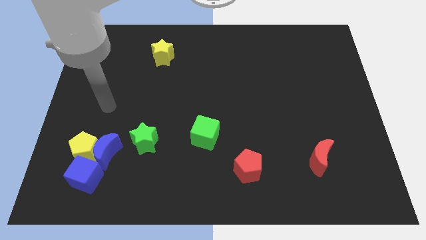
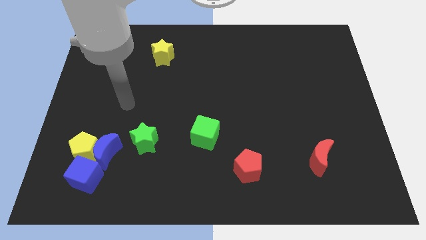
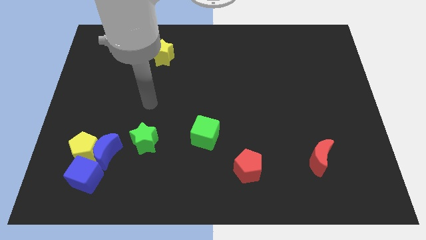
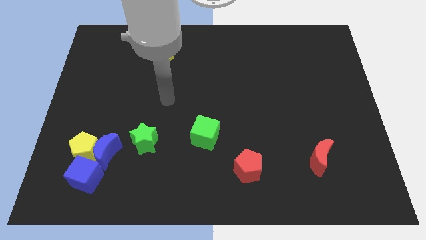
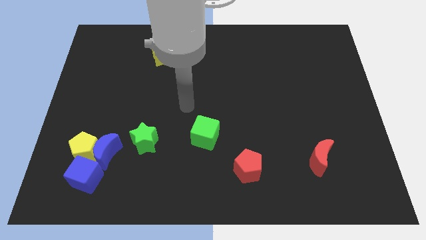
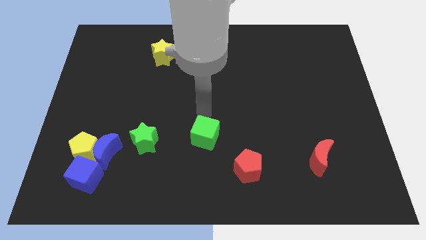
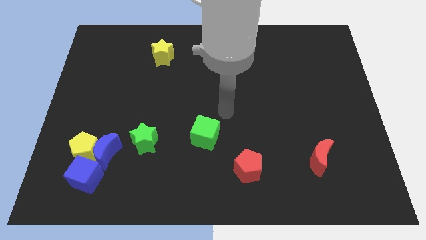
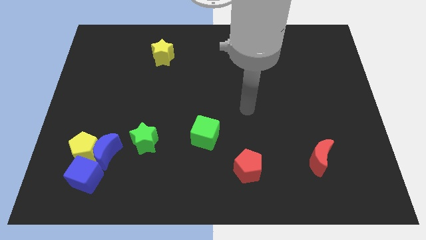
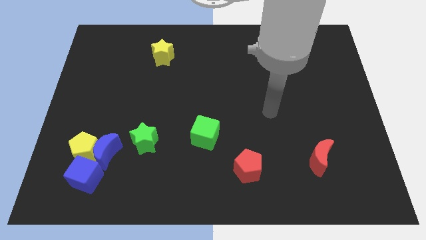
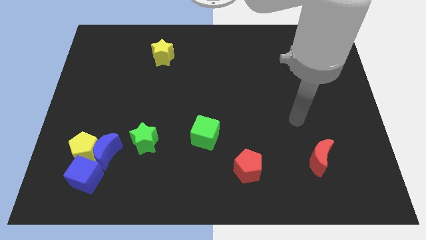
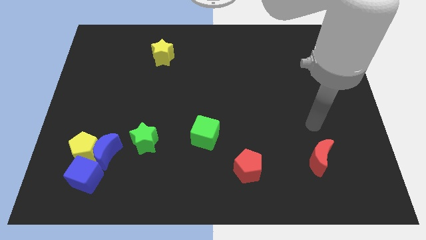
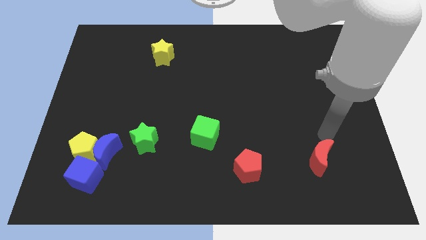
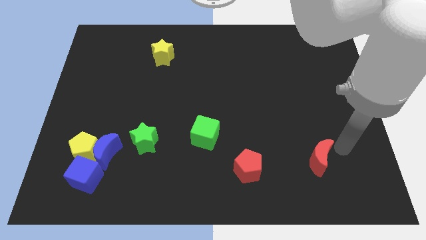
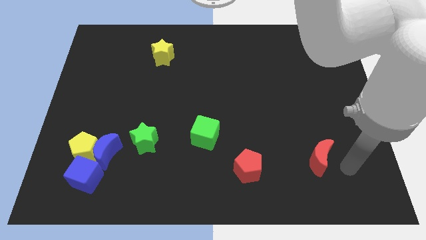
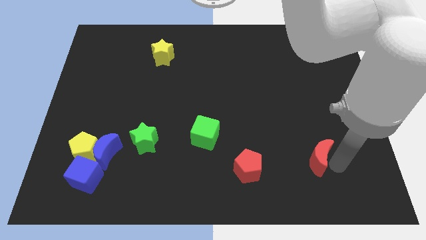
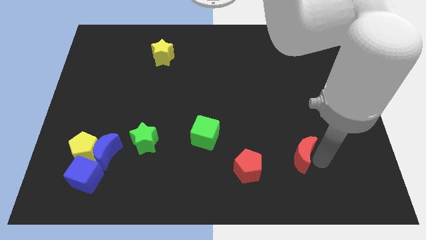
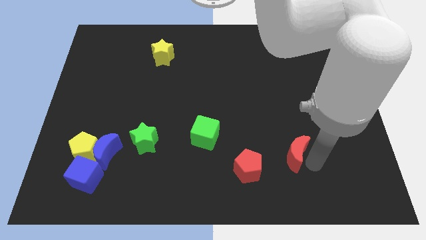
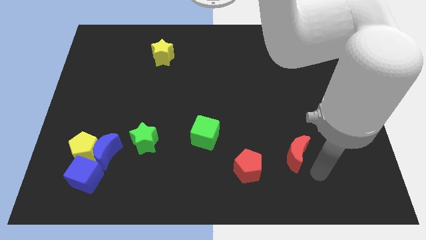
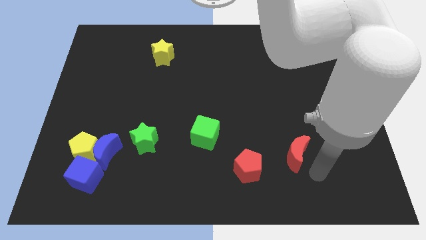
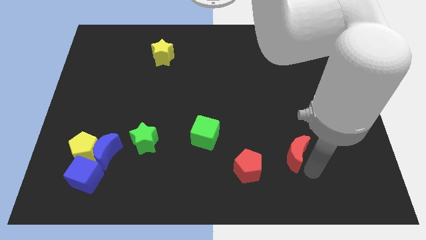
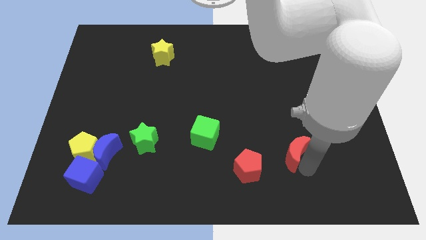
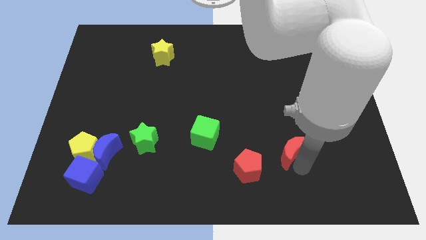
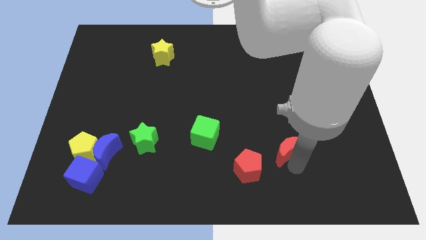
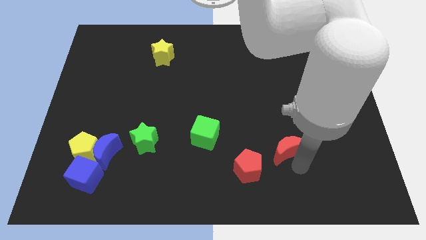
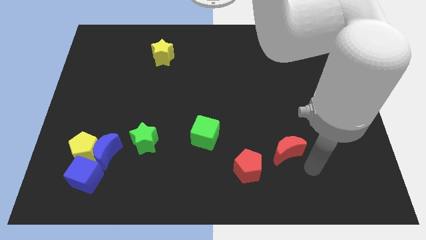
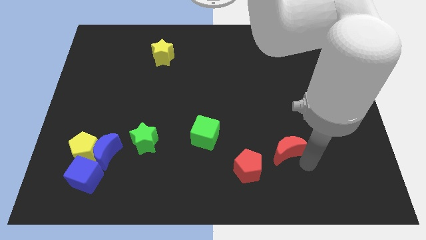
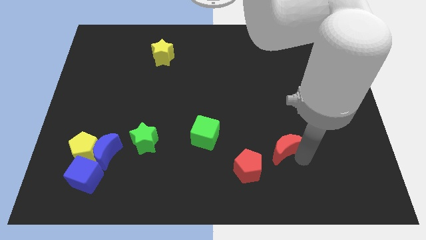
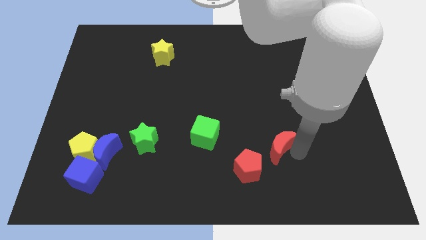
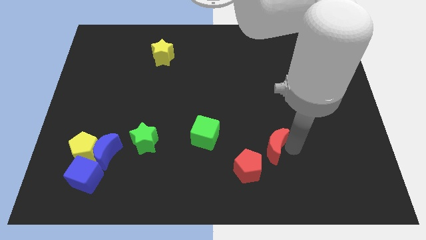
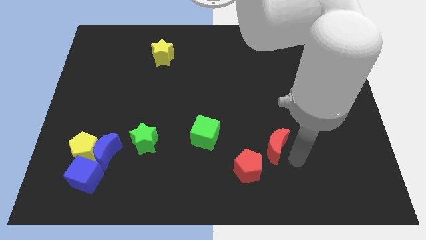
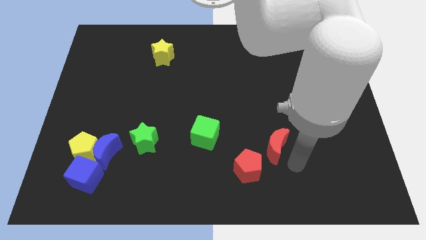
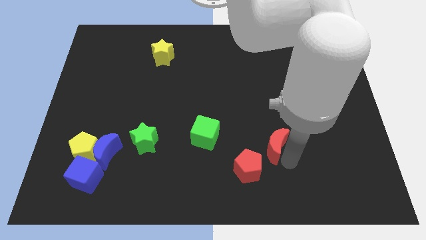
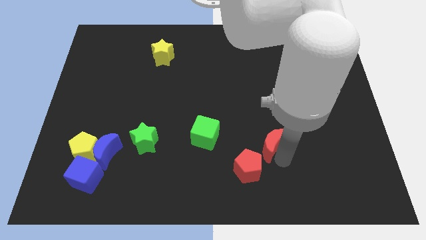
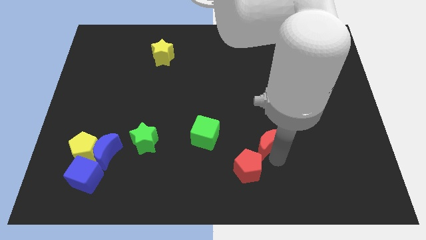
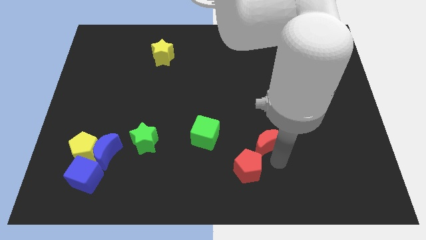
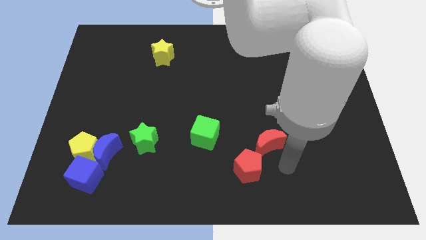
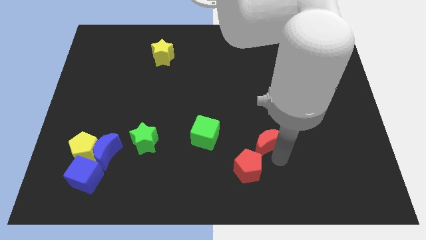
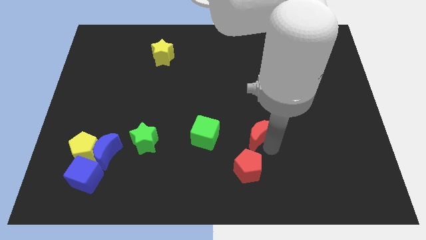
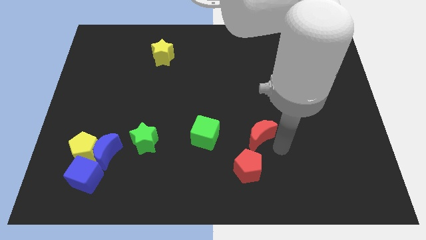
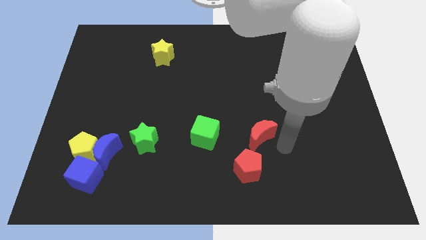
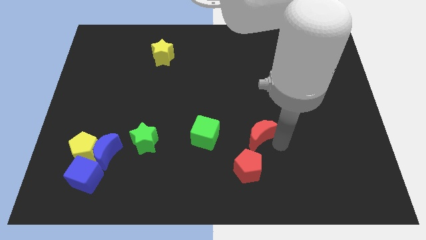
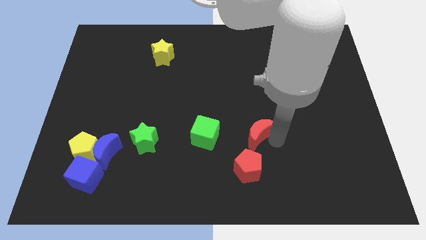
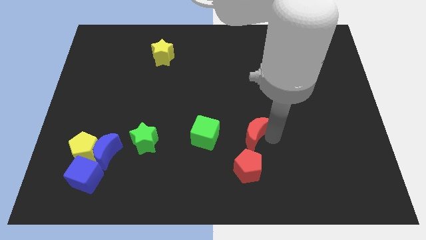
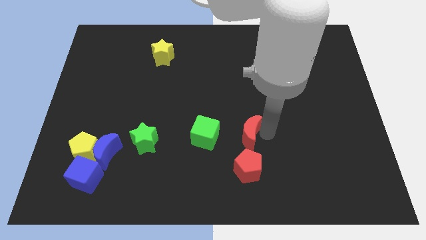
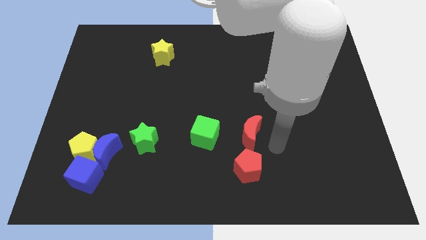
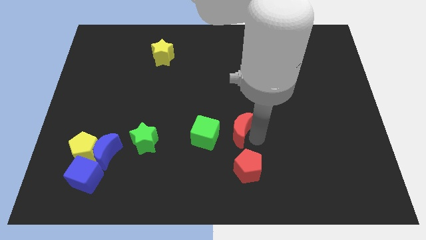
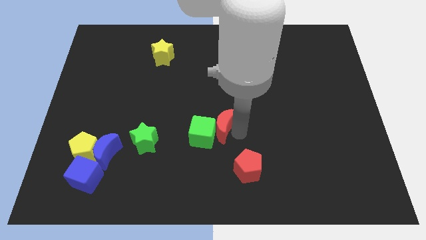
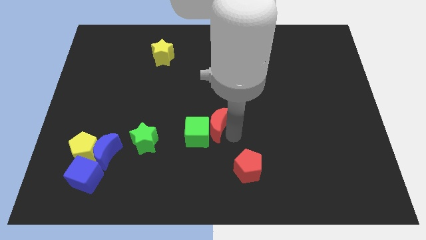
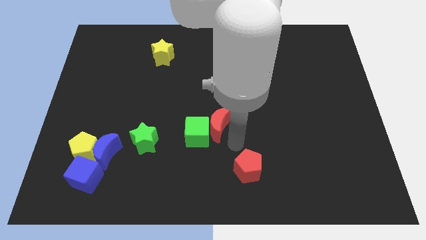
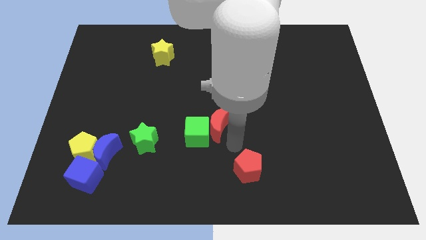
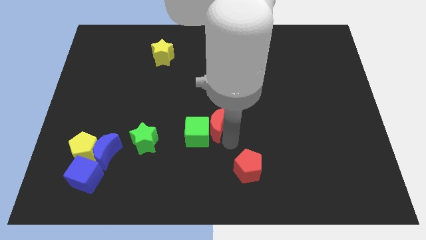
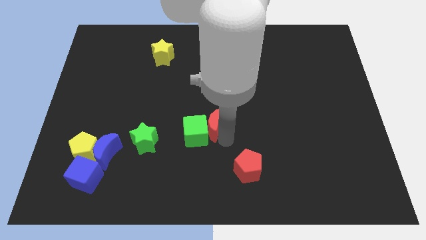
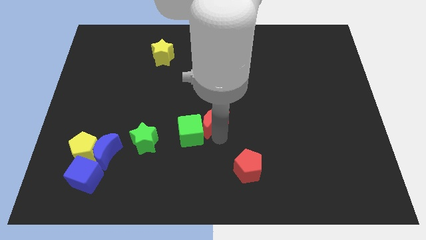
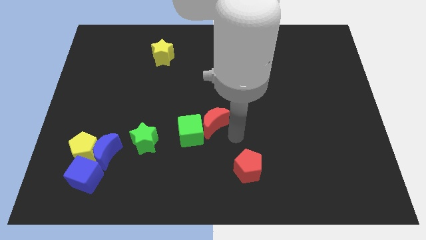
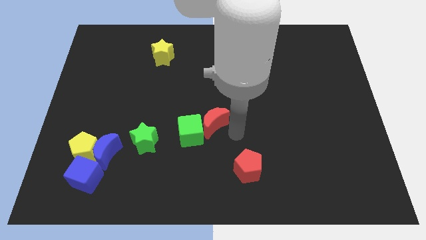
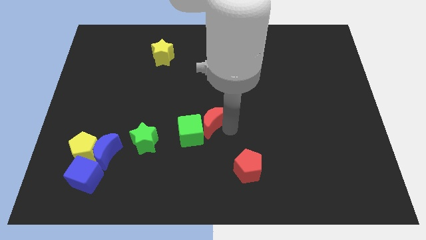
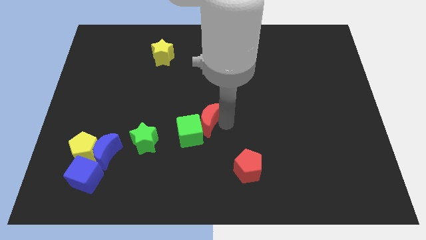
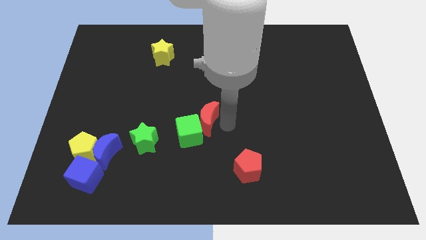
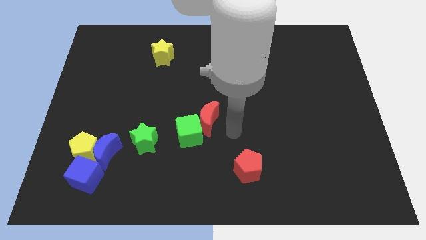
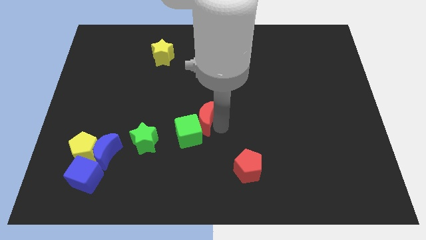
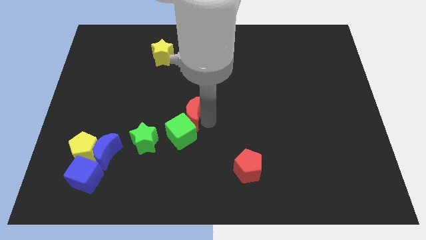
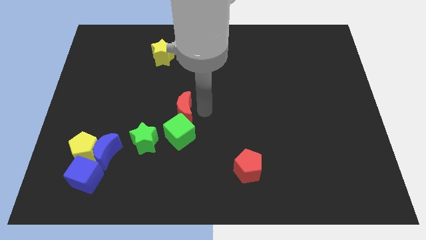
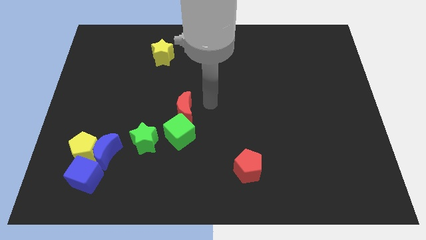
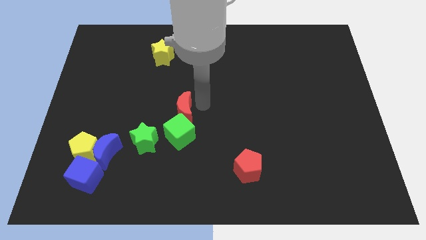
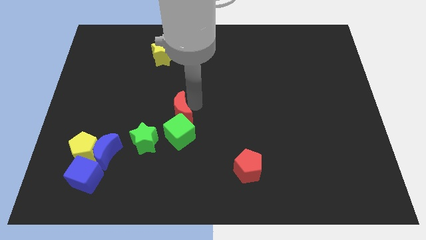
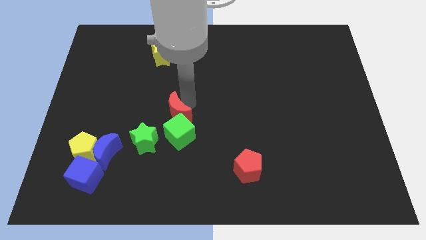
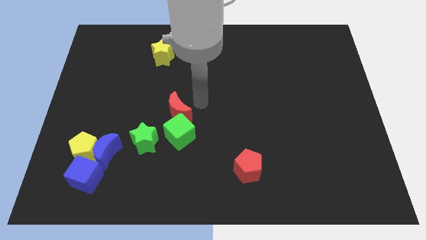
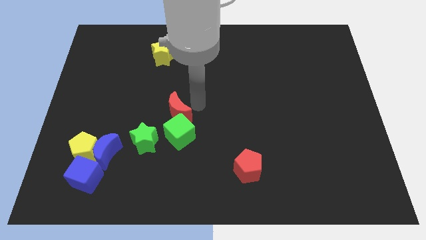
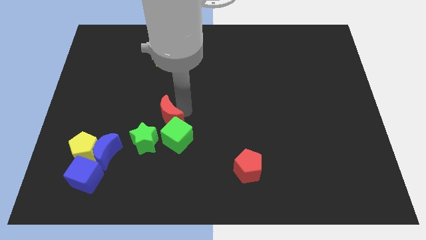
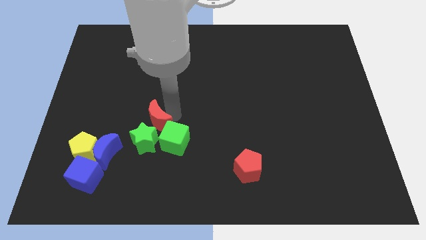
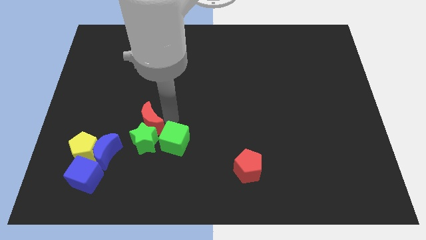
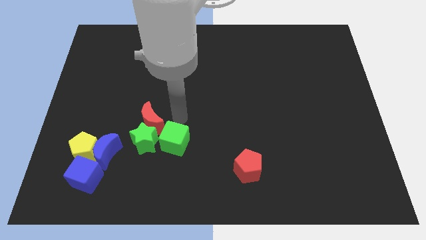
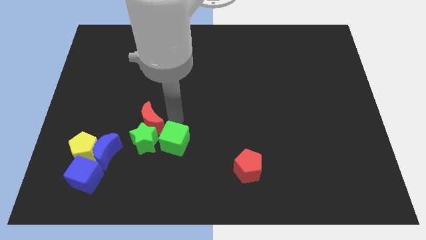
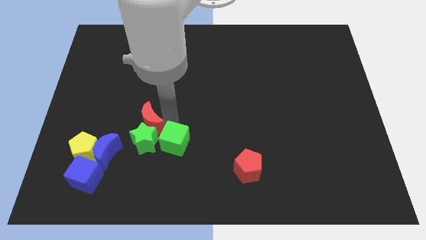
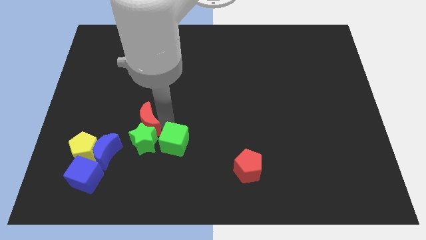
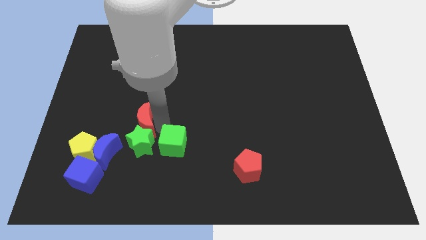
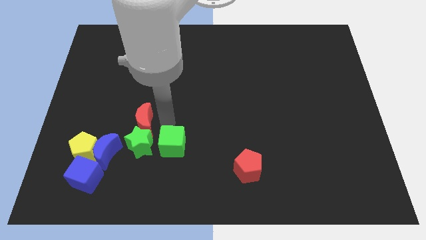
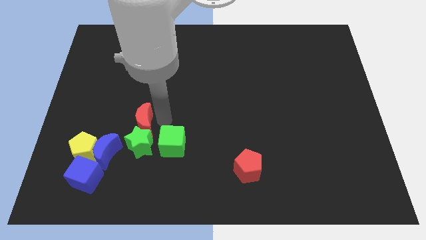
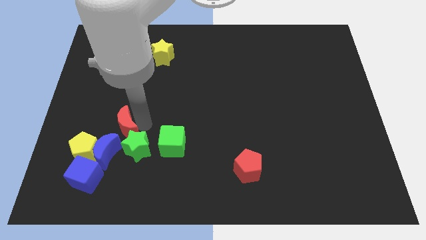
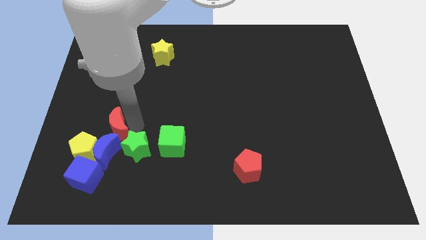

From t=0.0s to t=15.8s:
put the red moon to the top side of the blue cube
